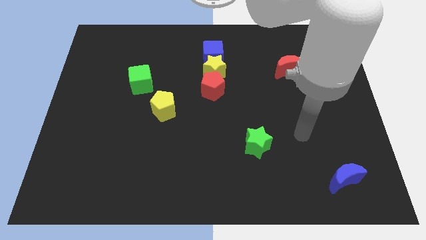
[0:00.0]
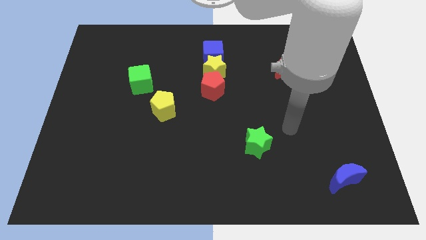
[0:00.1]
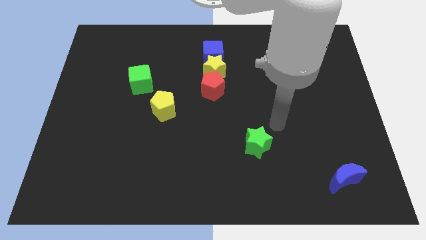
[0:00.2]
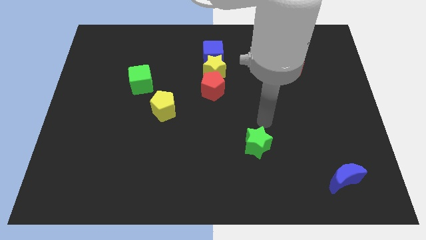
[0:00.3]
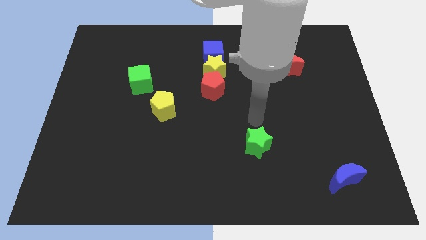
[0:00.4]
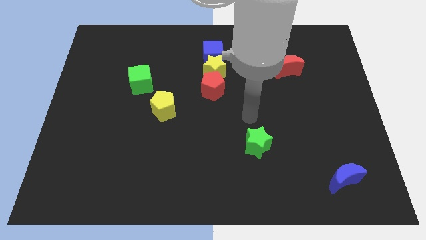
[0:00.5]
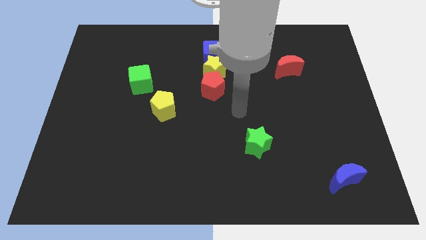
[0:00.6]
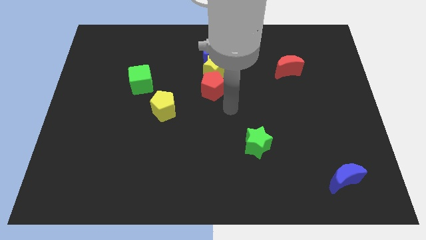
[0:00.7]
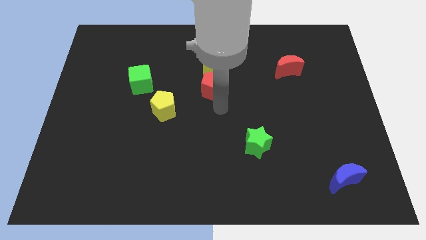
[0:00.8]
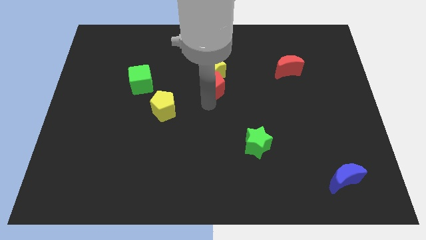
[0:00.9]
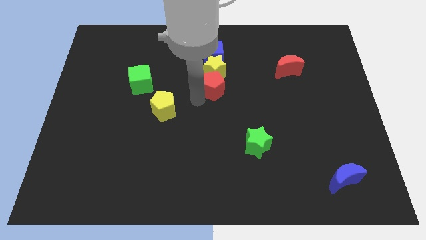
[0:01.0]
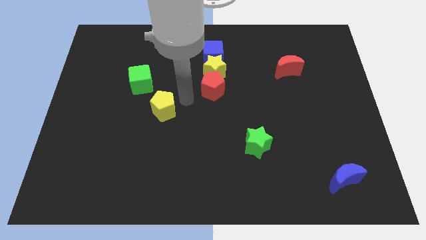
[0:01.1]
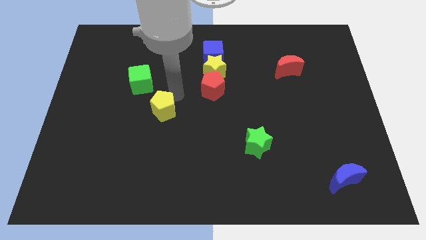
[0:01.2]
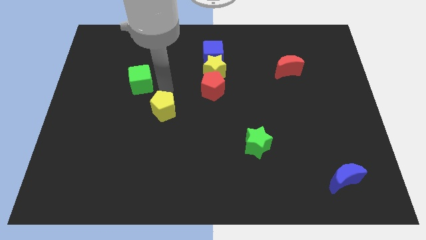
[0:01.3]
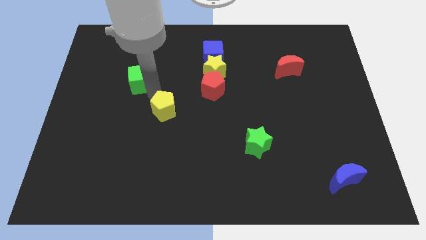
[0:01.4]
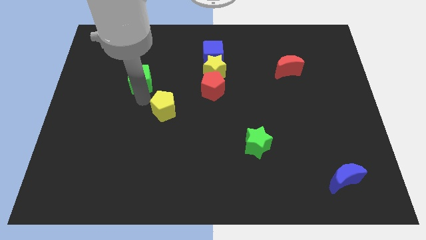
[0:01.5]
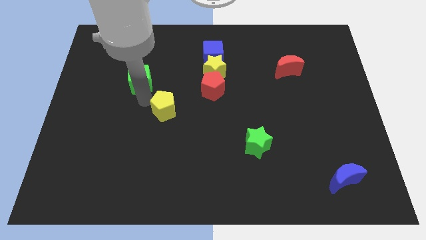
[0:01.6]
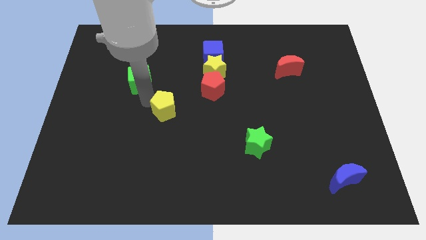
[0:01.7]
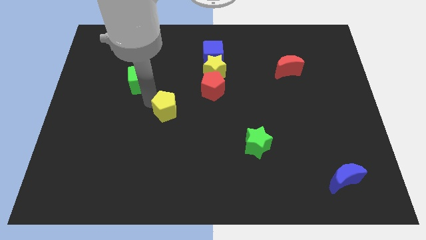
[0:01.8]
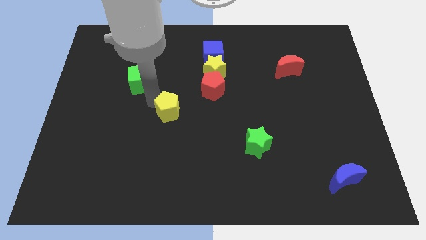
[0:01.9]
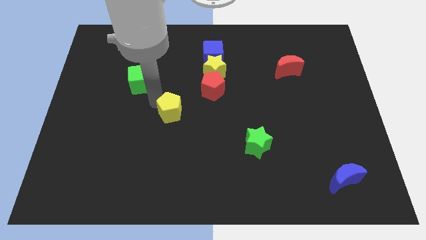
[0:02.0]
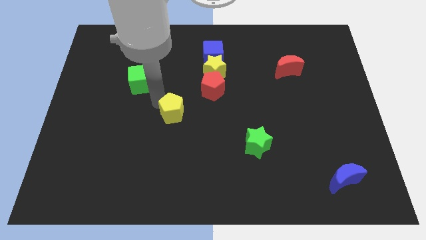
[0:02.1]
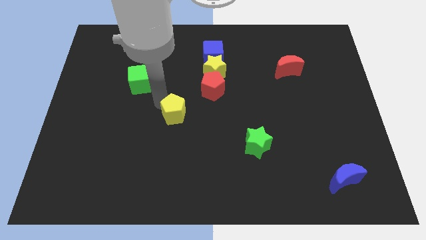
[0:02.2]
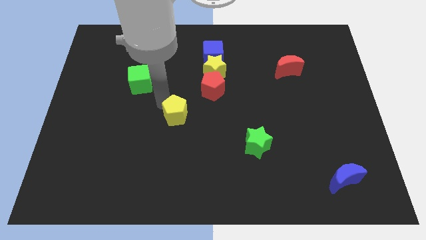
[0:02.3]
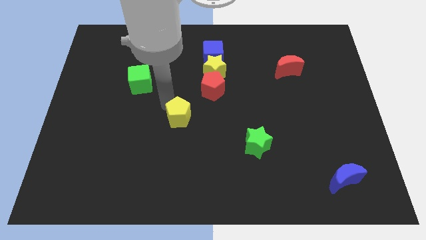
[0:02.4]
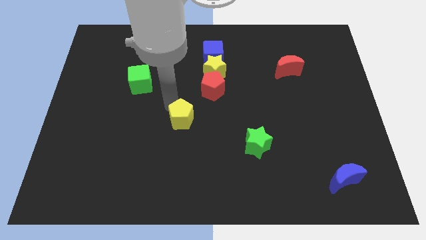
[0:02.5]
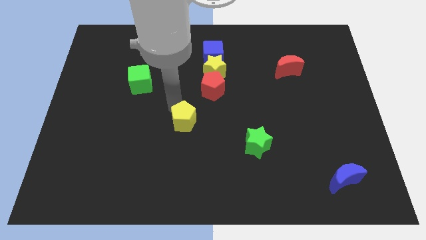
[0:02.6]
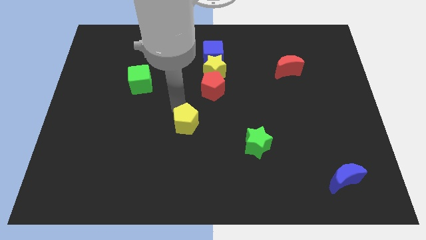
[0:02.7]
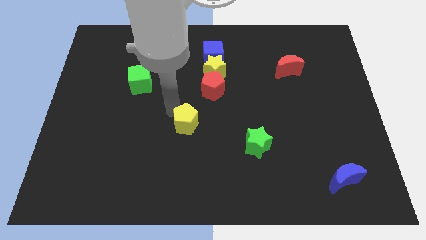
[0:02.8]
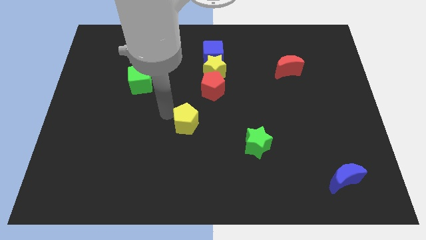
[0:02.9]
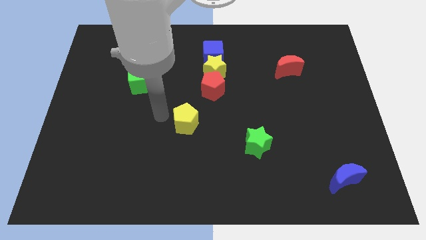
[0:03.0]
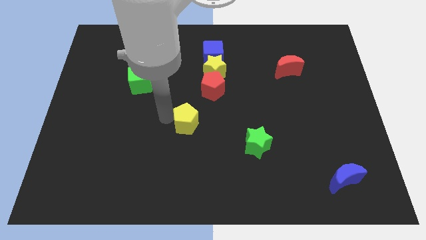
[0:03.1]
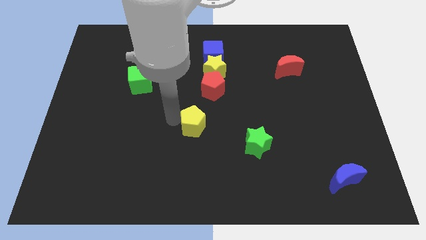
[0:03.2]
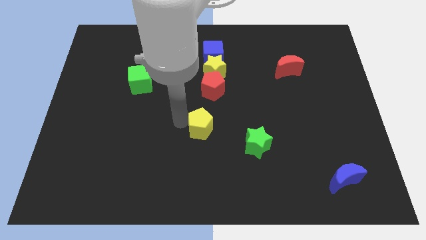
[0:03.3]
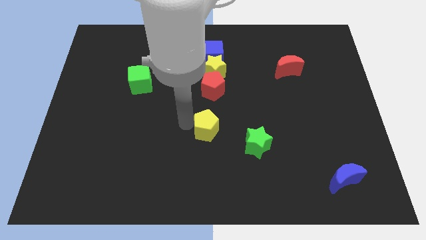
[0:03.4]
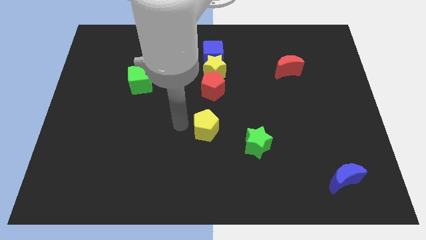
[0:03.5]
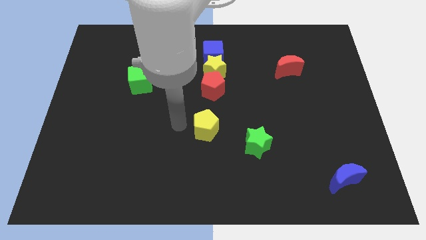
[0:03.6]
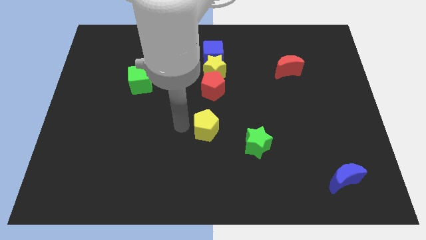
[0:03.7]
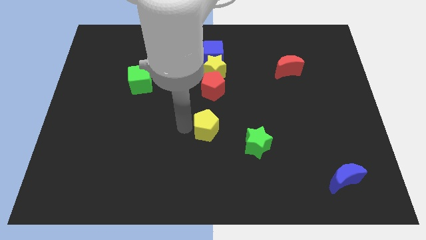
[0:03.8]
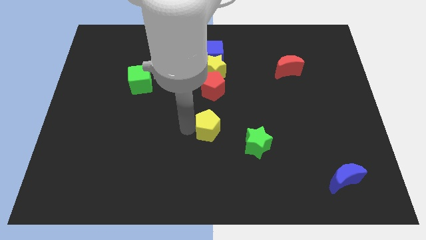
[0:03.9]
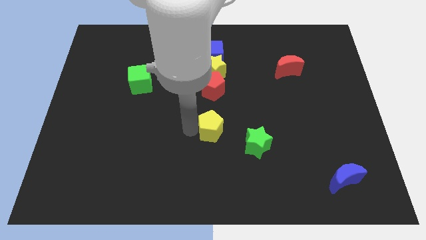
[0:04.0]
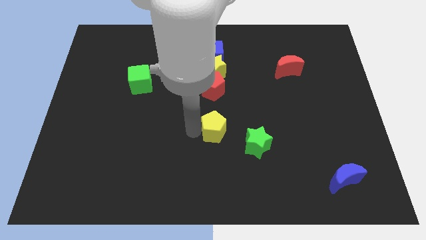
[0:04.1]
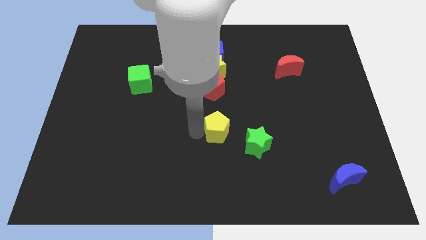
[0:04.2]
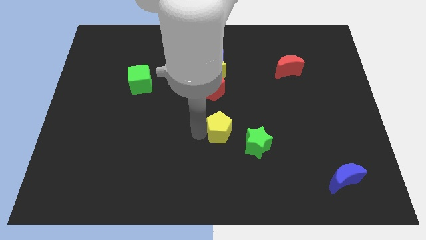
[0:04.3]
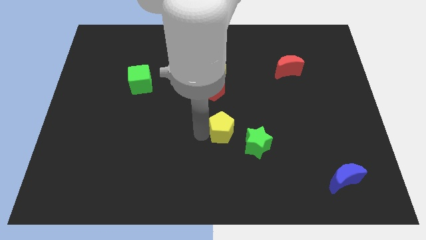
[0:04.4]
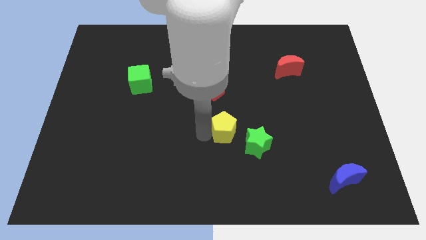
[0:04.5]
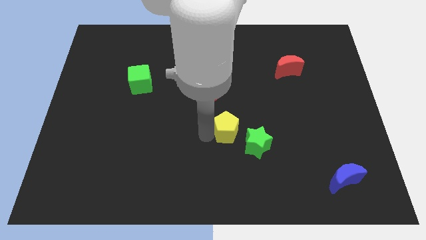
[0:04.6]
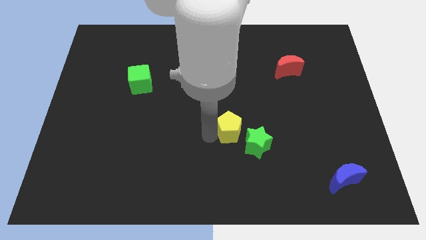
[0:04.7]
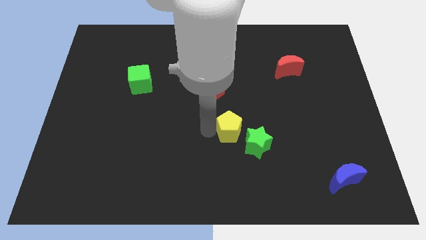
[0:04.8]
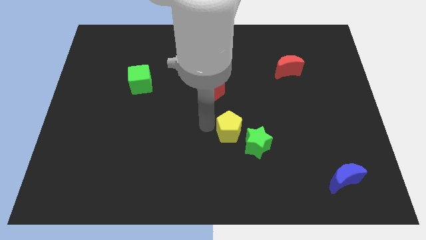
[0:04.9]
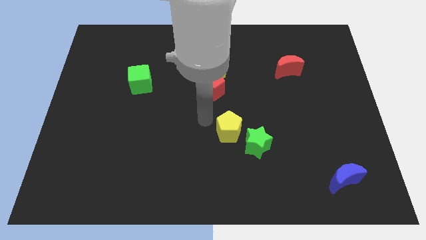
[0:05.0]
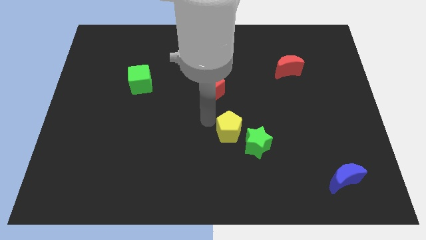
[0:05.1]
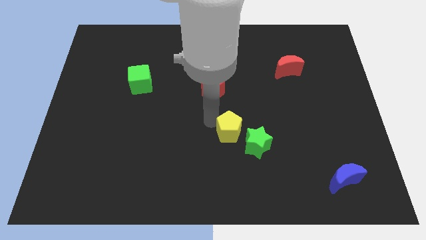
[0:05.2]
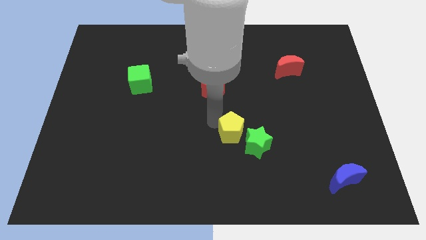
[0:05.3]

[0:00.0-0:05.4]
slide the yellow pentagon close to the green star

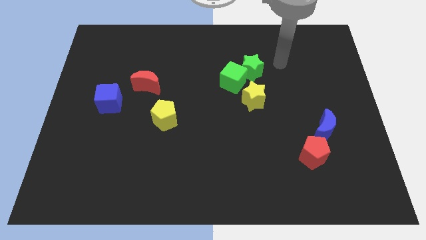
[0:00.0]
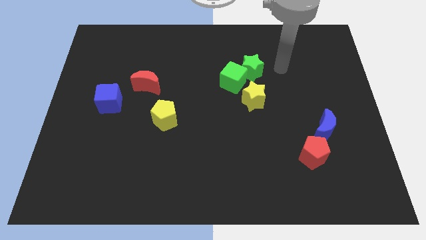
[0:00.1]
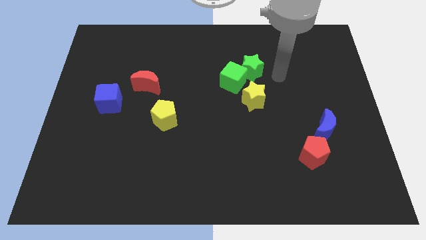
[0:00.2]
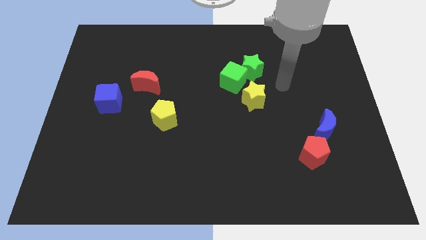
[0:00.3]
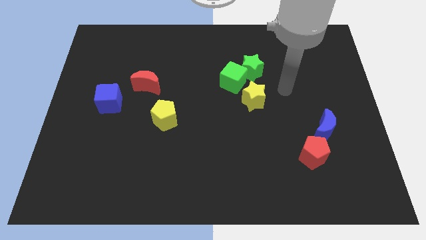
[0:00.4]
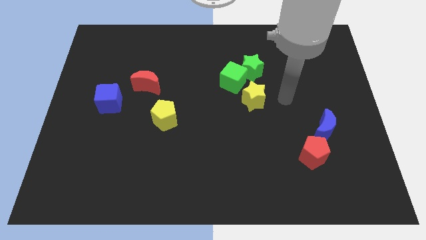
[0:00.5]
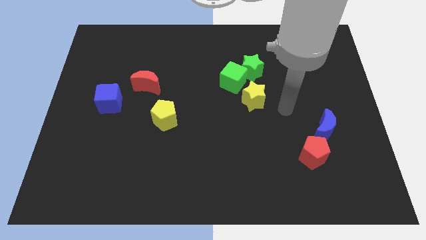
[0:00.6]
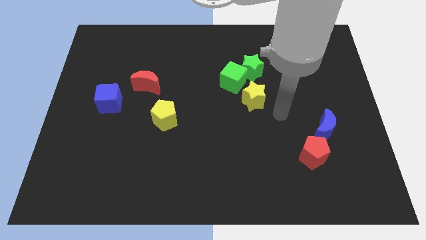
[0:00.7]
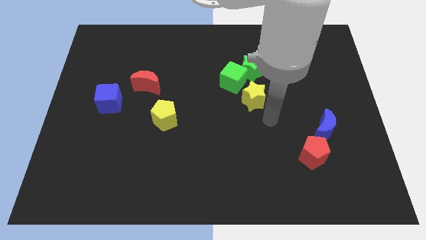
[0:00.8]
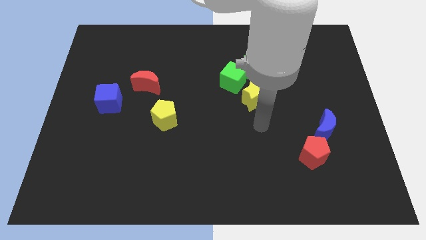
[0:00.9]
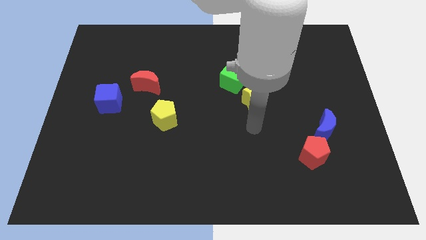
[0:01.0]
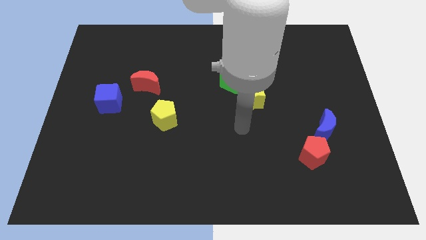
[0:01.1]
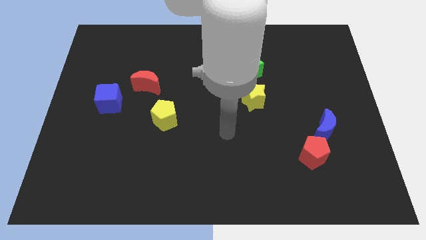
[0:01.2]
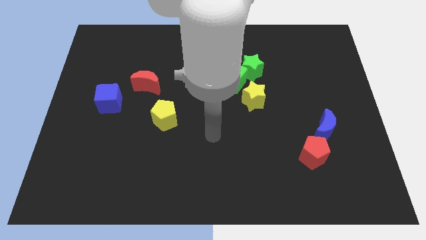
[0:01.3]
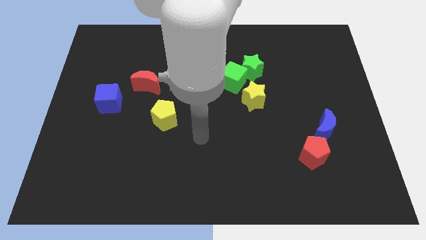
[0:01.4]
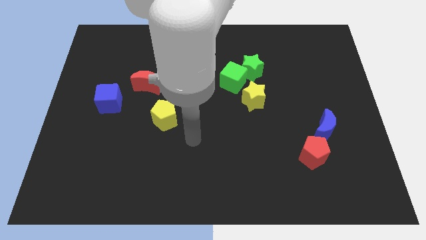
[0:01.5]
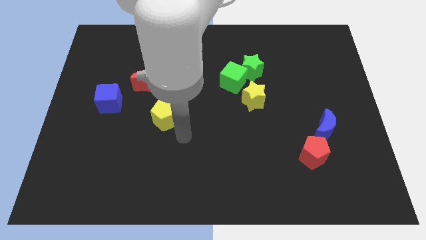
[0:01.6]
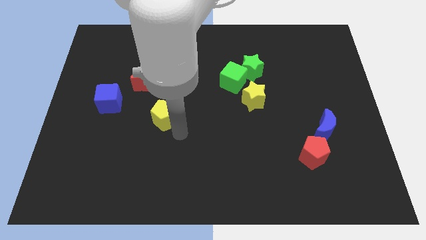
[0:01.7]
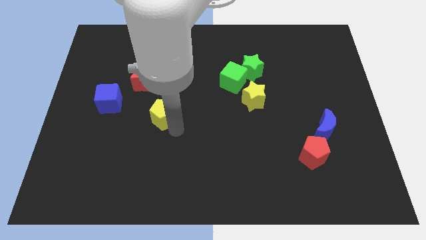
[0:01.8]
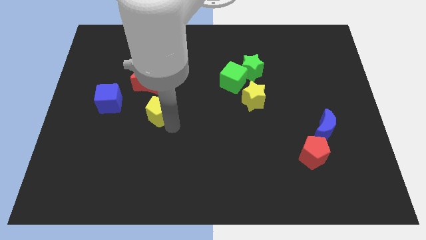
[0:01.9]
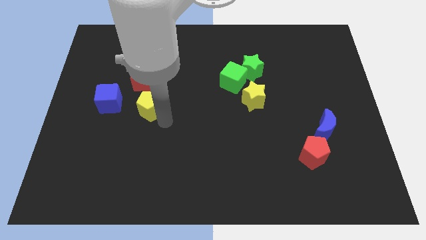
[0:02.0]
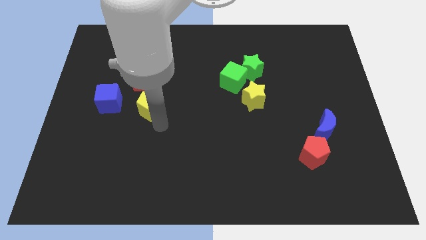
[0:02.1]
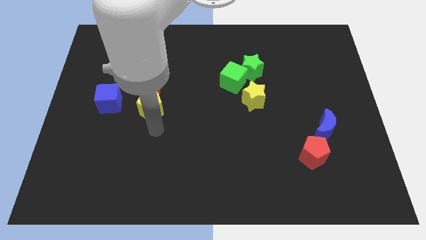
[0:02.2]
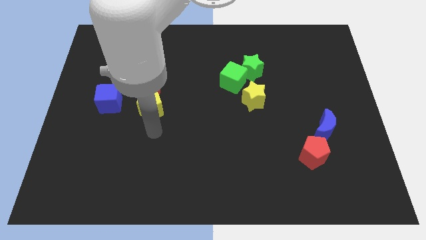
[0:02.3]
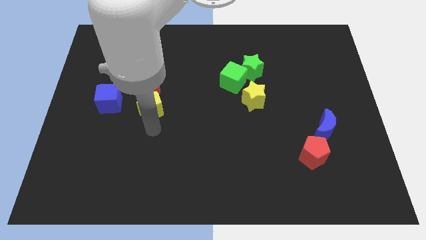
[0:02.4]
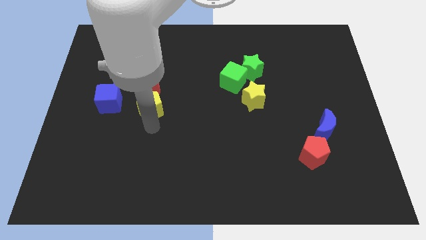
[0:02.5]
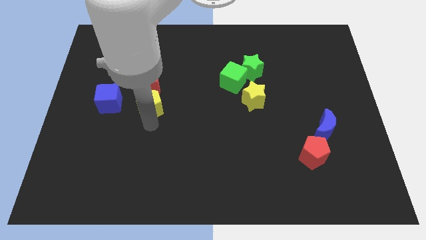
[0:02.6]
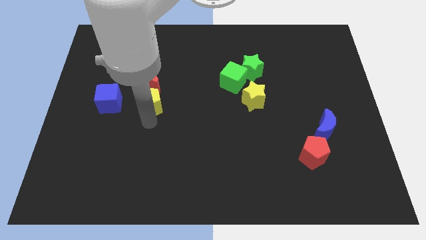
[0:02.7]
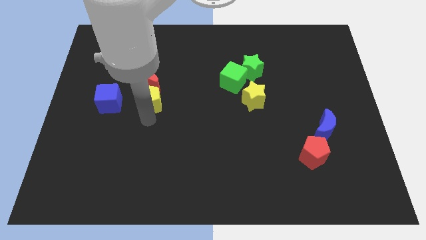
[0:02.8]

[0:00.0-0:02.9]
slide the yellow pentagon close to the red moon
